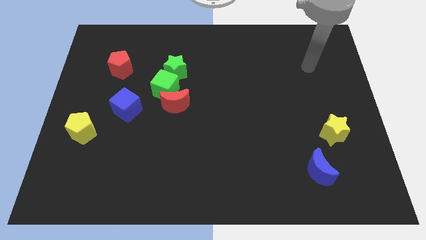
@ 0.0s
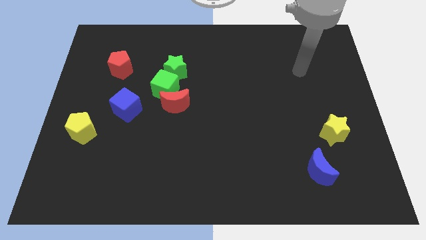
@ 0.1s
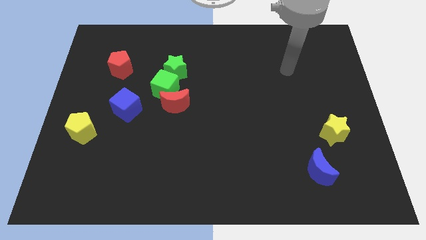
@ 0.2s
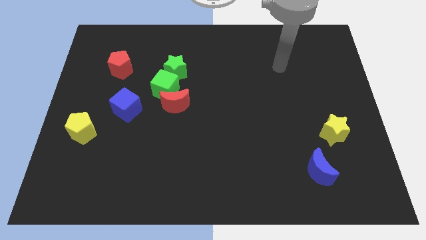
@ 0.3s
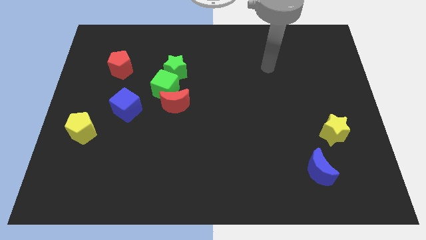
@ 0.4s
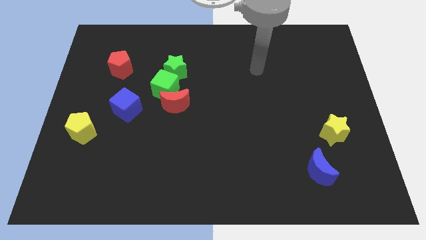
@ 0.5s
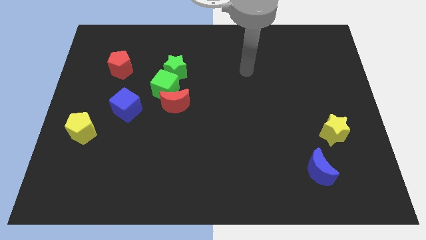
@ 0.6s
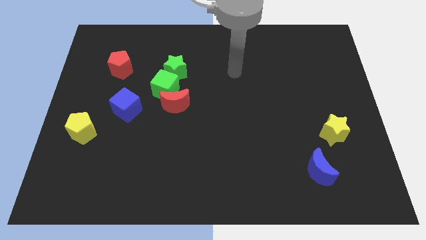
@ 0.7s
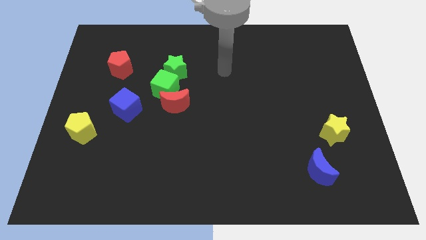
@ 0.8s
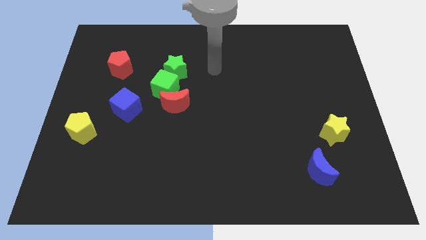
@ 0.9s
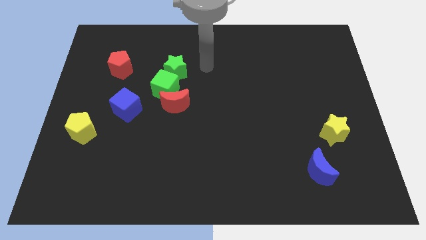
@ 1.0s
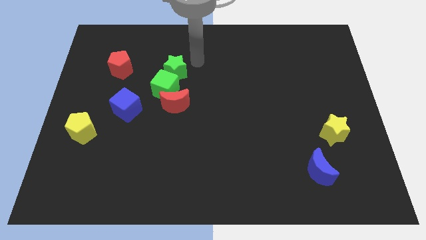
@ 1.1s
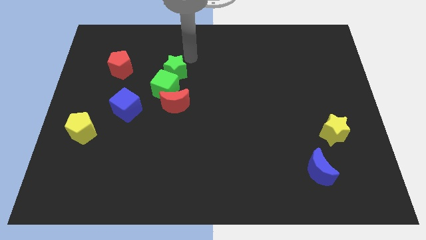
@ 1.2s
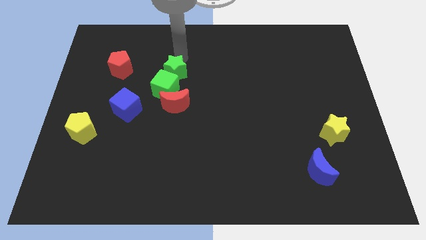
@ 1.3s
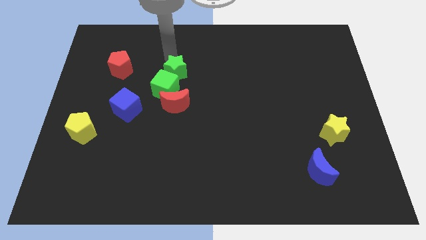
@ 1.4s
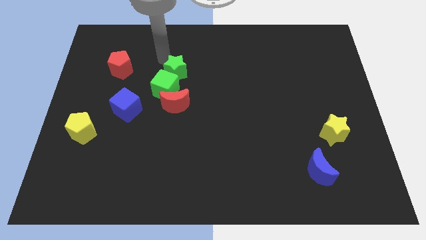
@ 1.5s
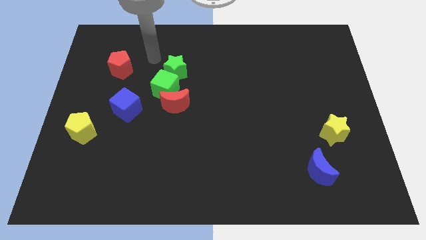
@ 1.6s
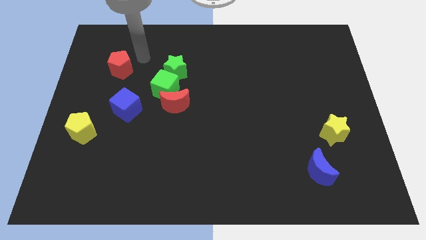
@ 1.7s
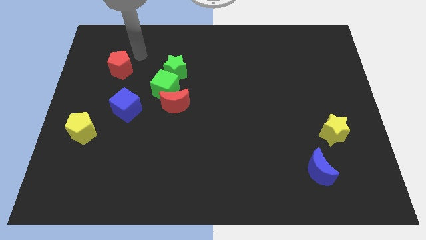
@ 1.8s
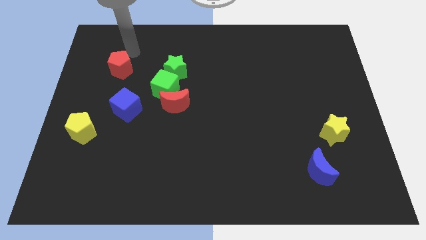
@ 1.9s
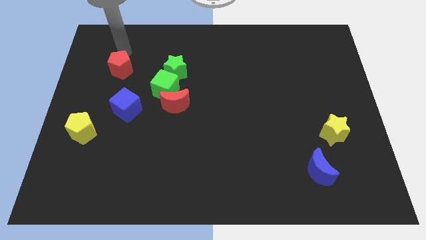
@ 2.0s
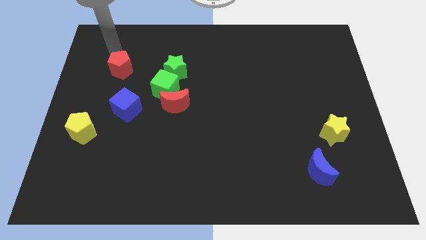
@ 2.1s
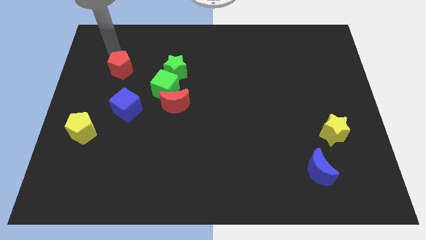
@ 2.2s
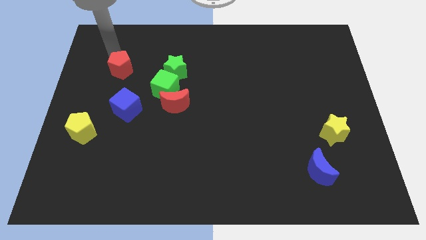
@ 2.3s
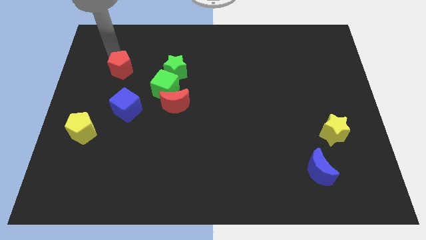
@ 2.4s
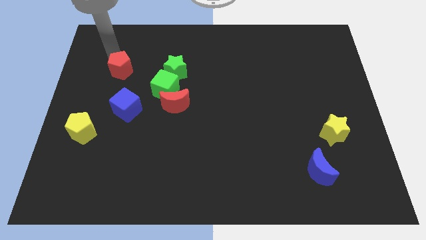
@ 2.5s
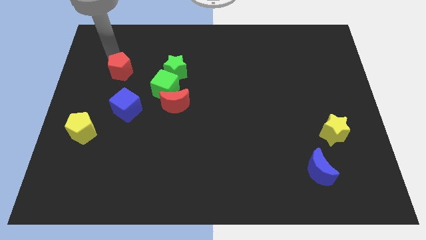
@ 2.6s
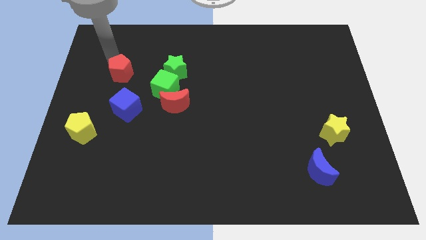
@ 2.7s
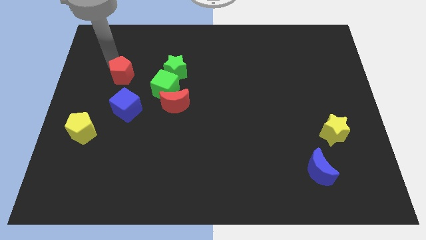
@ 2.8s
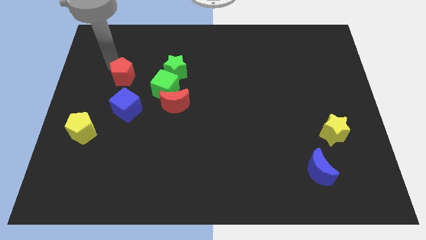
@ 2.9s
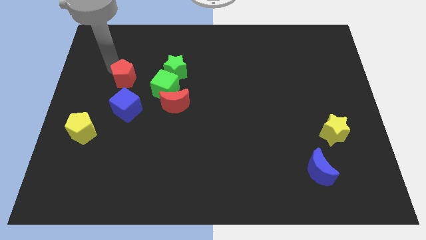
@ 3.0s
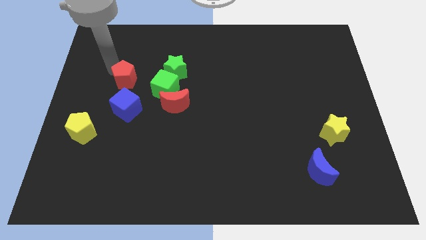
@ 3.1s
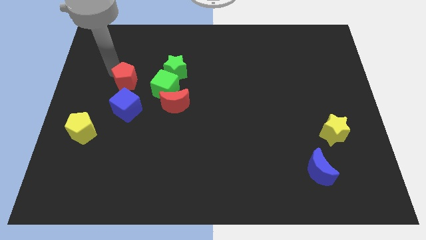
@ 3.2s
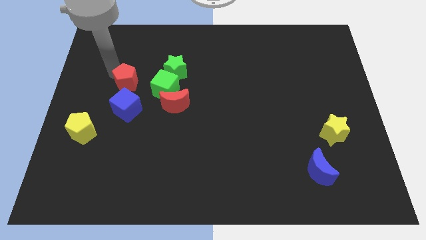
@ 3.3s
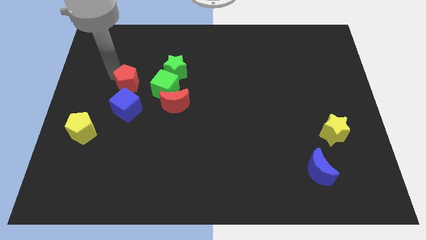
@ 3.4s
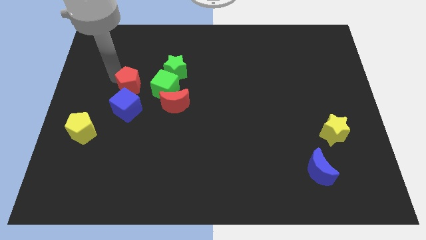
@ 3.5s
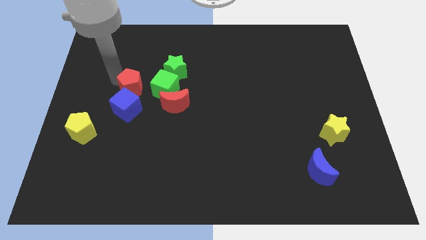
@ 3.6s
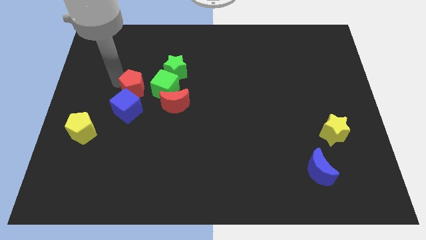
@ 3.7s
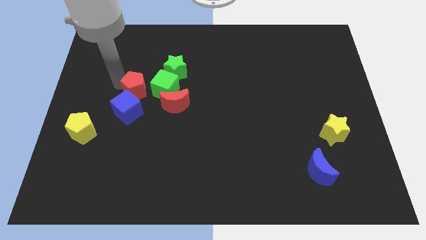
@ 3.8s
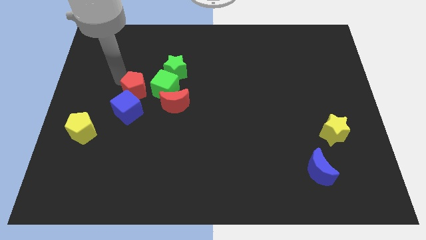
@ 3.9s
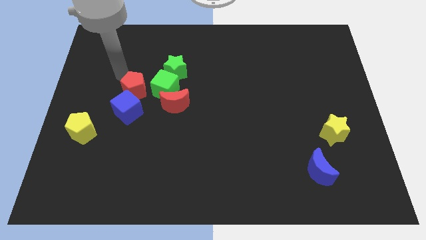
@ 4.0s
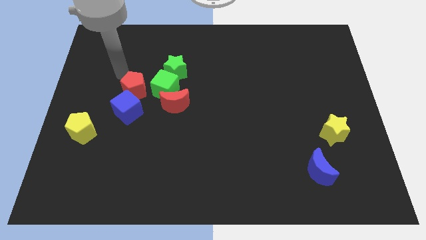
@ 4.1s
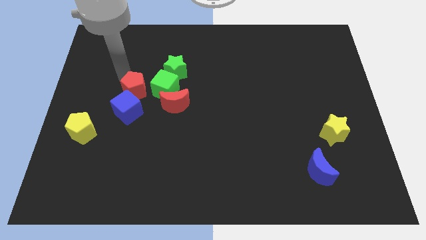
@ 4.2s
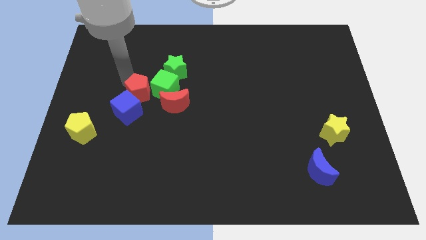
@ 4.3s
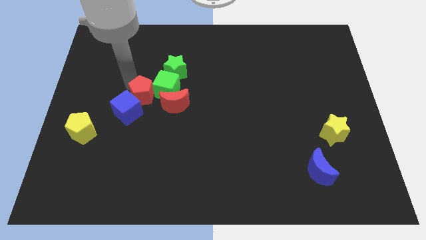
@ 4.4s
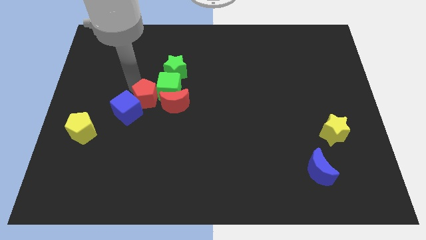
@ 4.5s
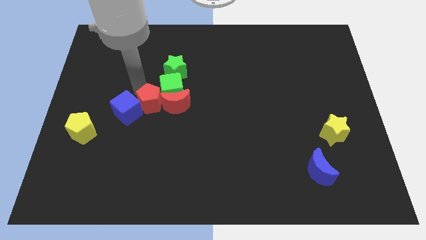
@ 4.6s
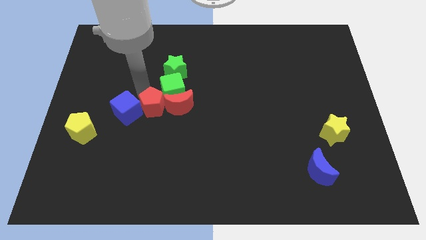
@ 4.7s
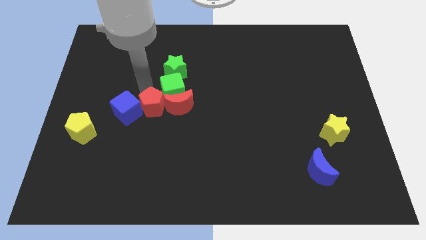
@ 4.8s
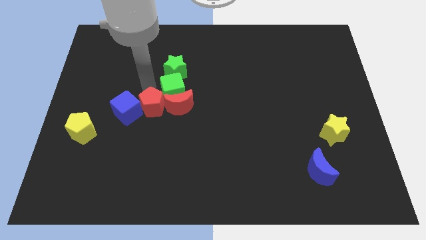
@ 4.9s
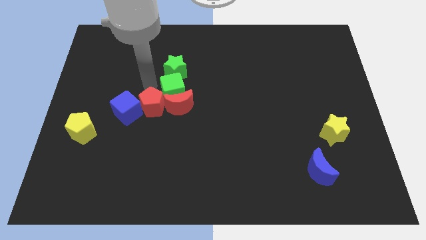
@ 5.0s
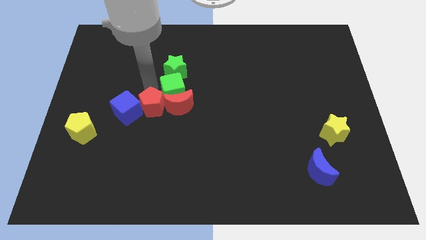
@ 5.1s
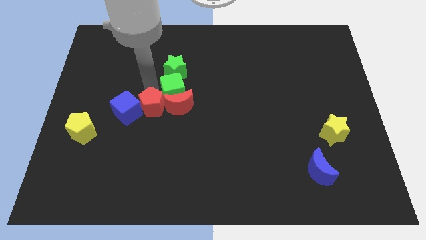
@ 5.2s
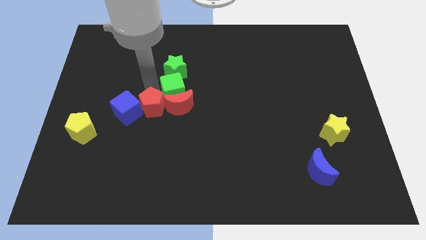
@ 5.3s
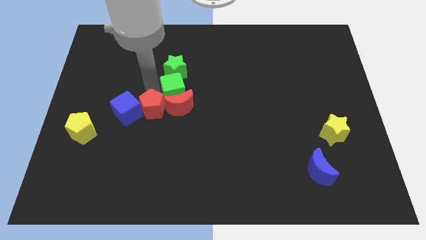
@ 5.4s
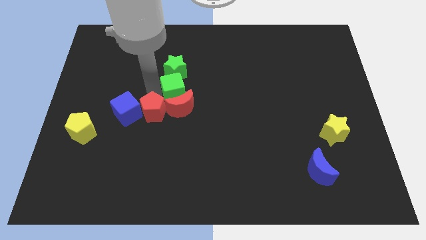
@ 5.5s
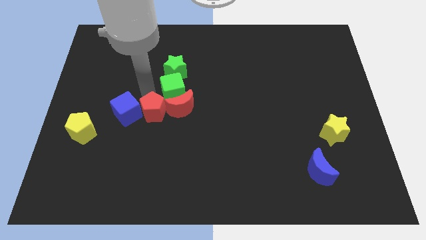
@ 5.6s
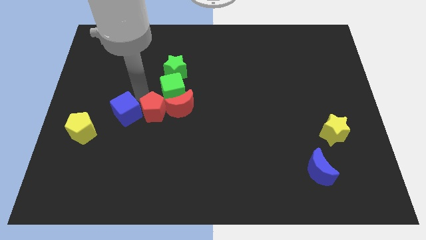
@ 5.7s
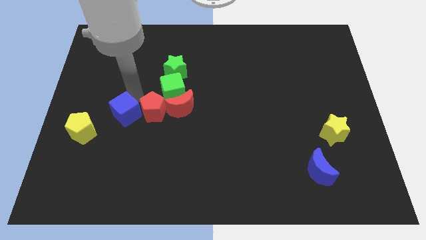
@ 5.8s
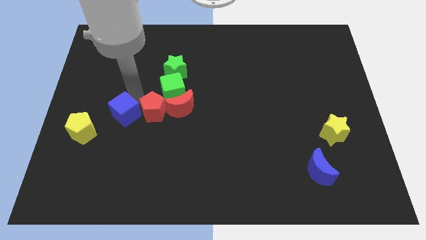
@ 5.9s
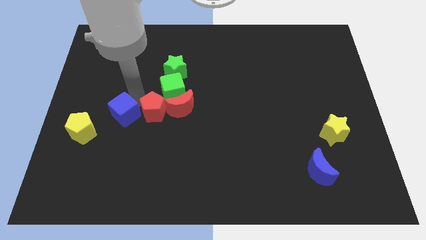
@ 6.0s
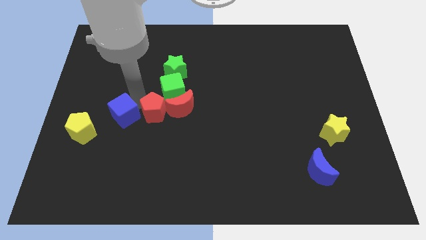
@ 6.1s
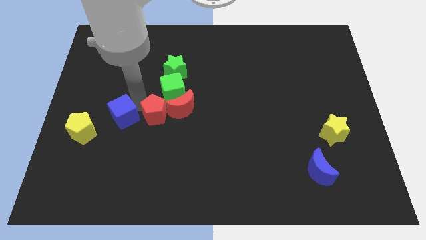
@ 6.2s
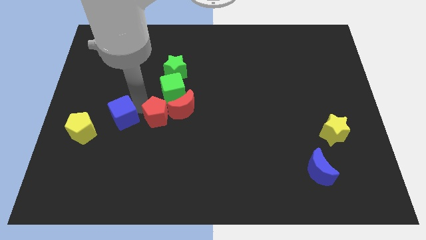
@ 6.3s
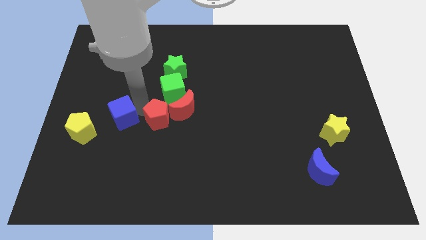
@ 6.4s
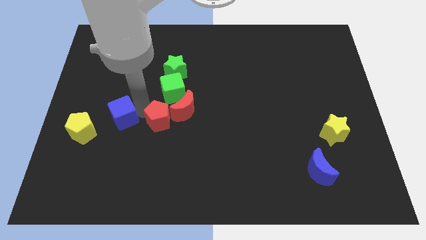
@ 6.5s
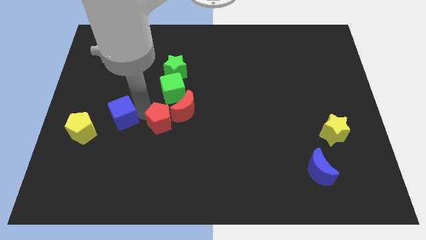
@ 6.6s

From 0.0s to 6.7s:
move the red pentagon diagonally down and to the right

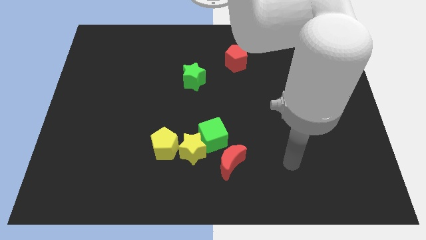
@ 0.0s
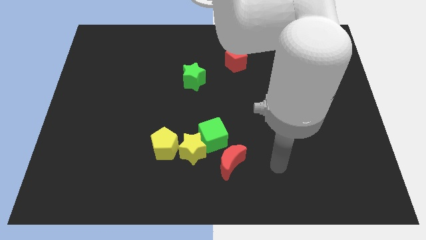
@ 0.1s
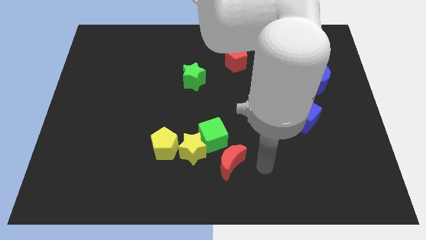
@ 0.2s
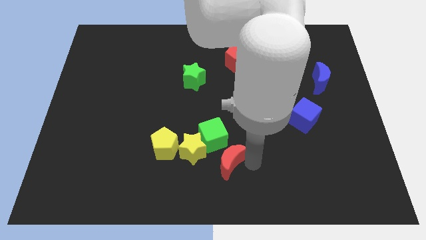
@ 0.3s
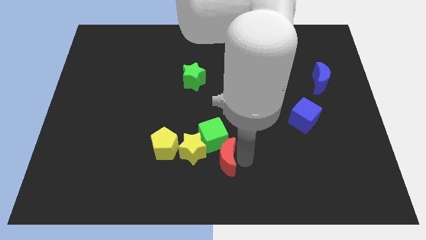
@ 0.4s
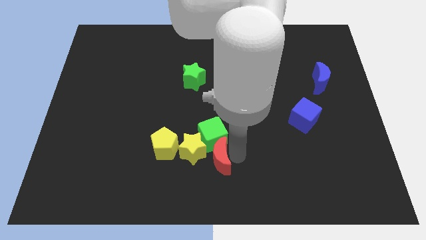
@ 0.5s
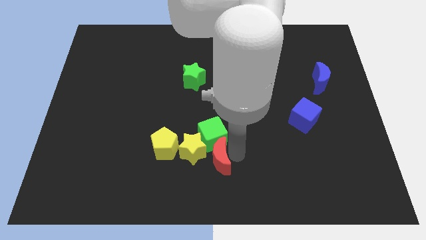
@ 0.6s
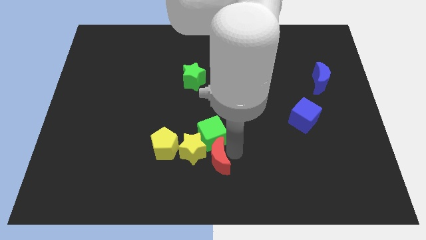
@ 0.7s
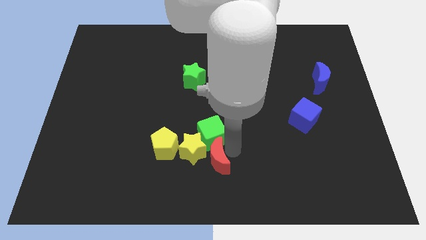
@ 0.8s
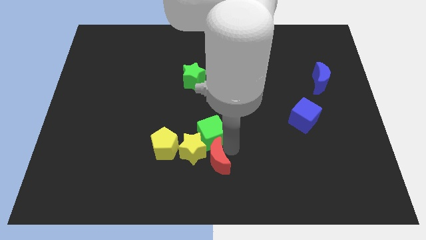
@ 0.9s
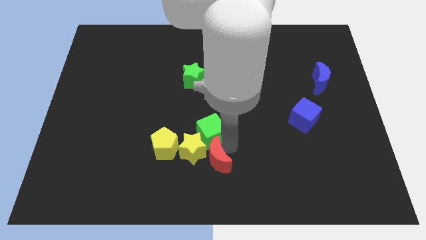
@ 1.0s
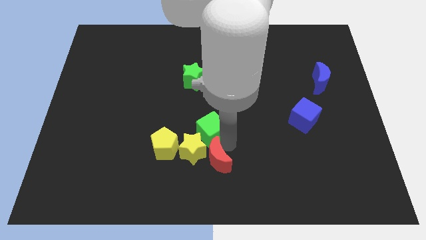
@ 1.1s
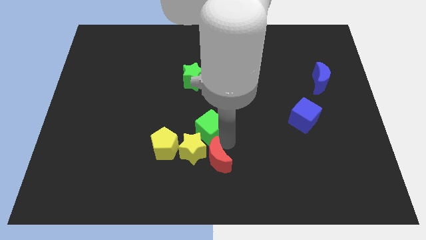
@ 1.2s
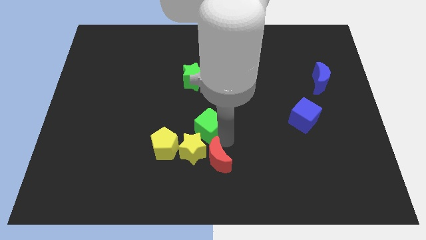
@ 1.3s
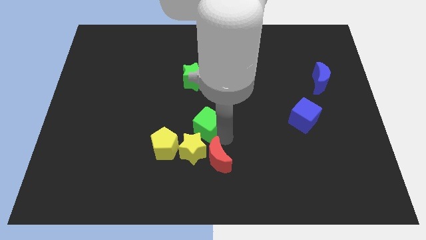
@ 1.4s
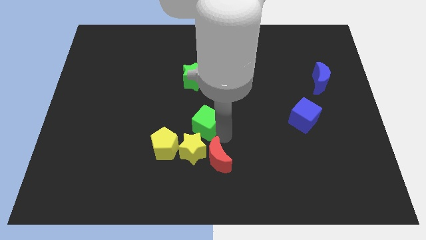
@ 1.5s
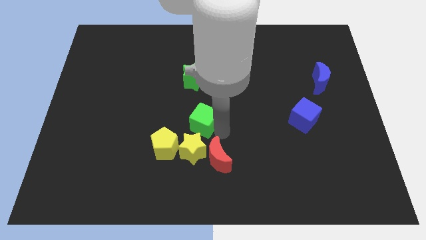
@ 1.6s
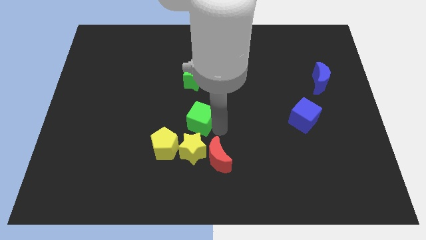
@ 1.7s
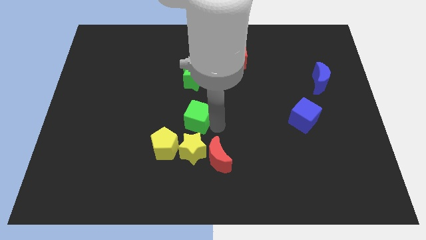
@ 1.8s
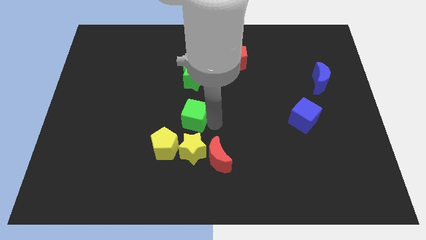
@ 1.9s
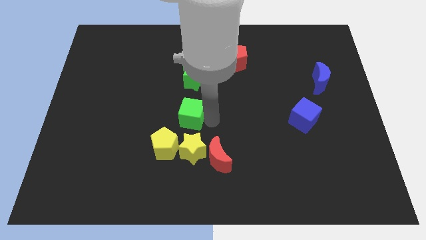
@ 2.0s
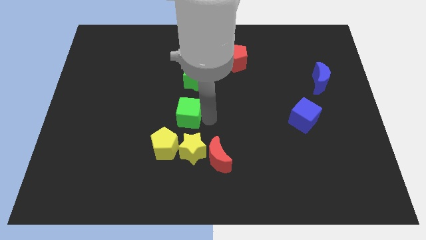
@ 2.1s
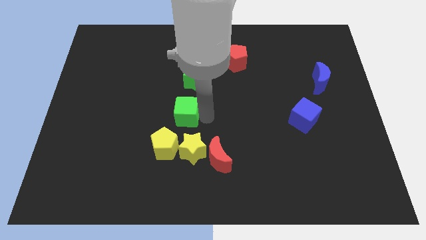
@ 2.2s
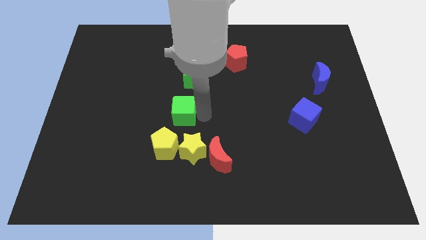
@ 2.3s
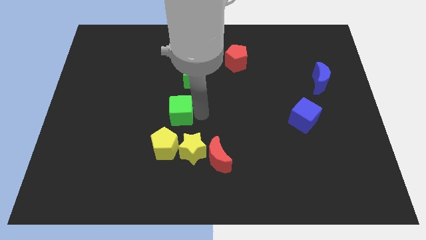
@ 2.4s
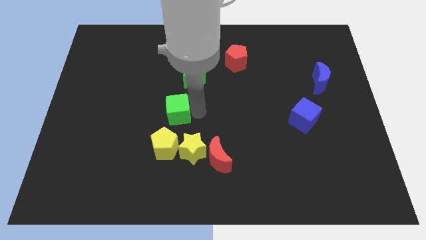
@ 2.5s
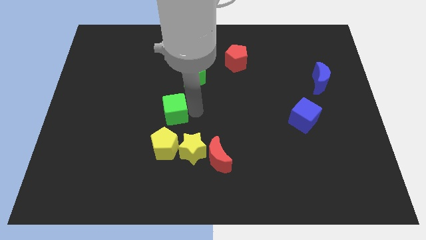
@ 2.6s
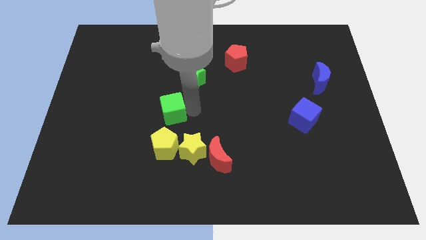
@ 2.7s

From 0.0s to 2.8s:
slightly push the green cube to the left
